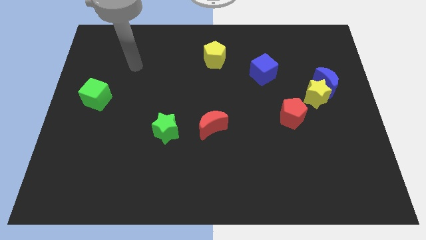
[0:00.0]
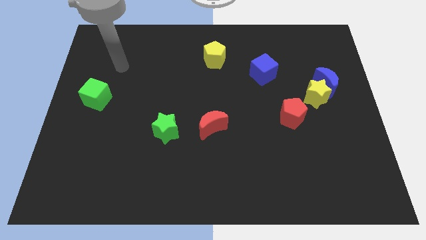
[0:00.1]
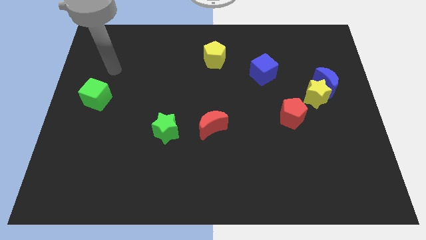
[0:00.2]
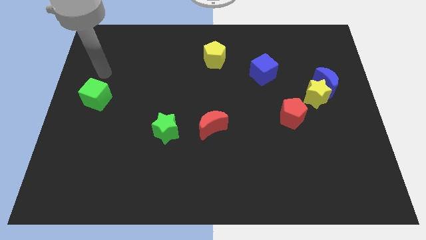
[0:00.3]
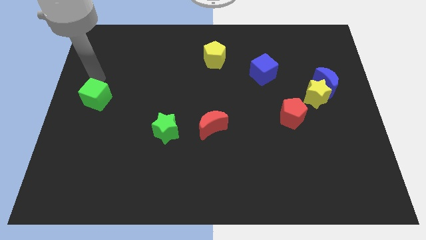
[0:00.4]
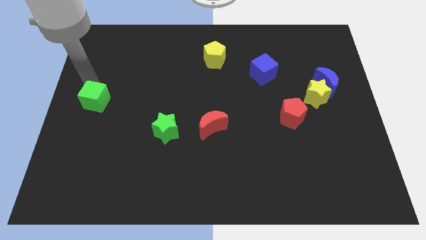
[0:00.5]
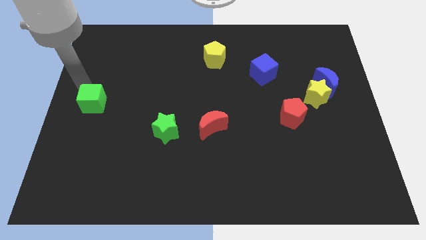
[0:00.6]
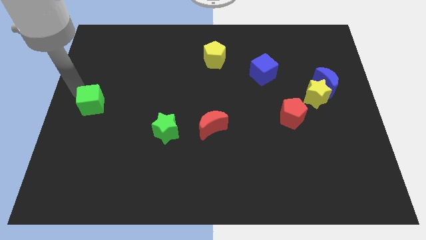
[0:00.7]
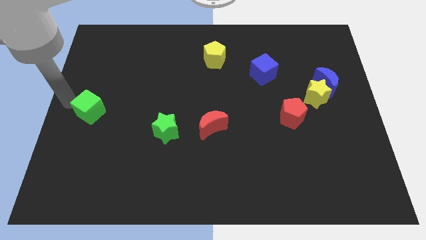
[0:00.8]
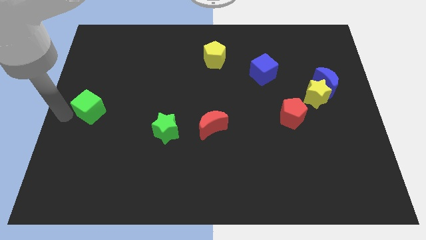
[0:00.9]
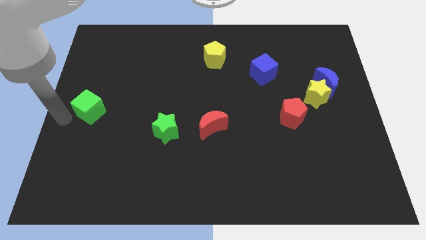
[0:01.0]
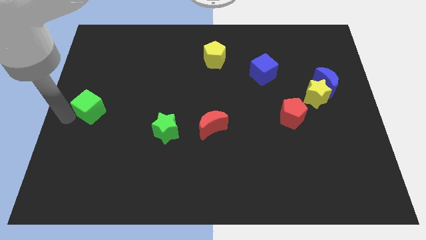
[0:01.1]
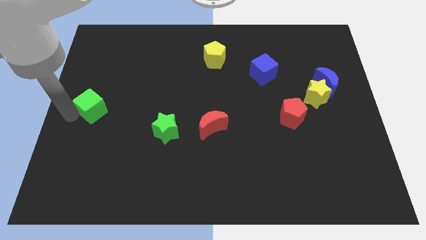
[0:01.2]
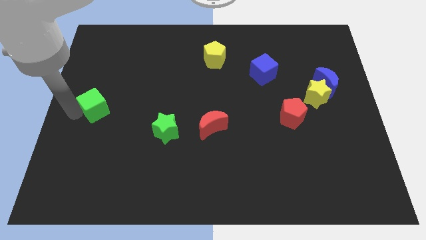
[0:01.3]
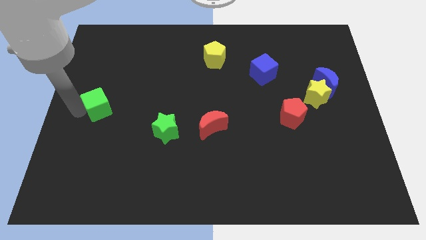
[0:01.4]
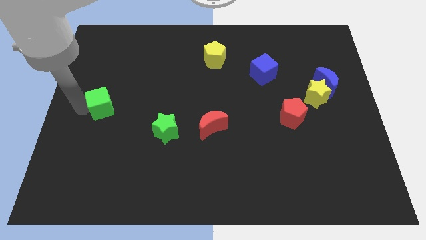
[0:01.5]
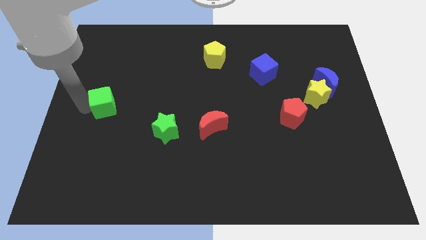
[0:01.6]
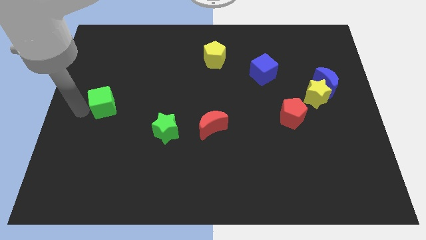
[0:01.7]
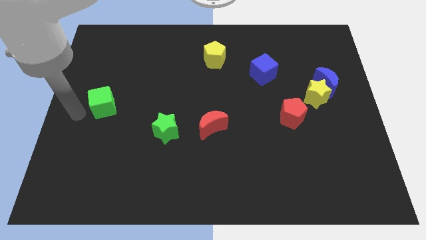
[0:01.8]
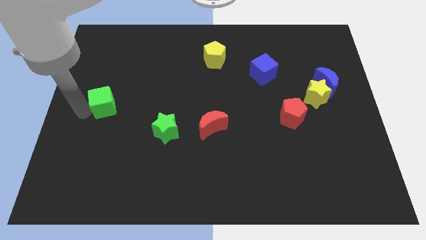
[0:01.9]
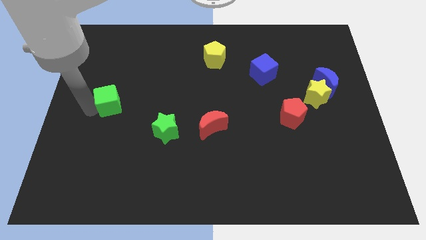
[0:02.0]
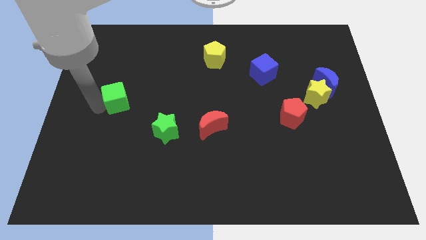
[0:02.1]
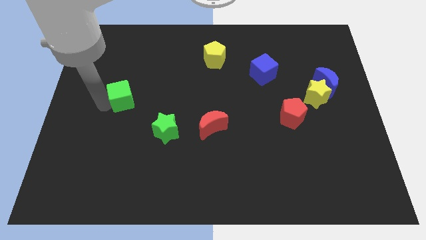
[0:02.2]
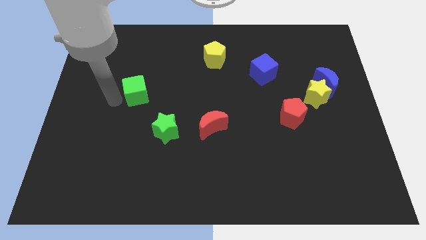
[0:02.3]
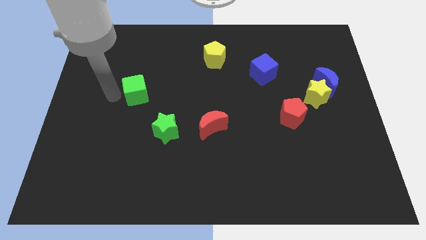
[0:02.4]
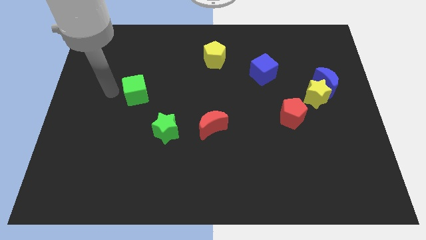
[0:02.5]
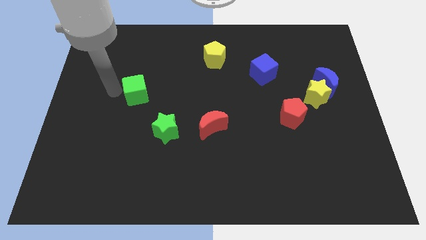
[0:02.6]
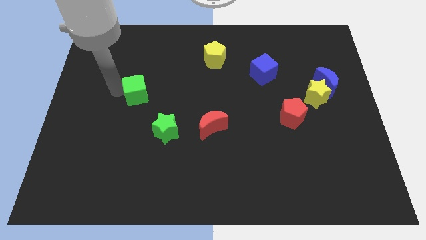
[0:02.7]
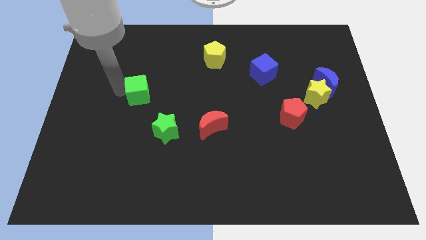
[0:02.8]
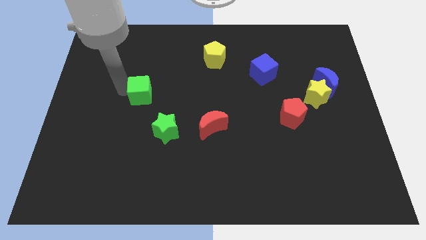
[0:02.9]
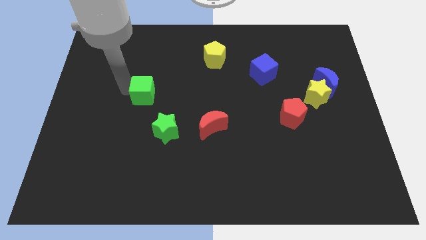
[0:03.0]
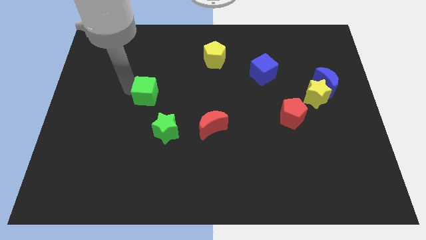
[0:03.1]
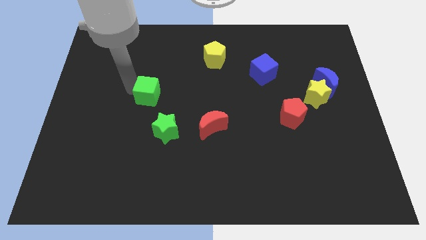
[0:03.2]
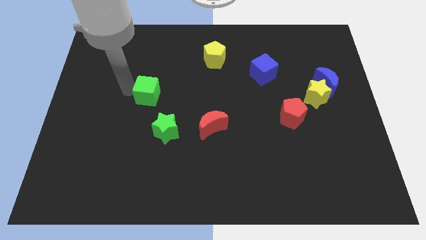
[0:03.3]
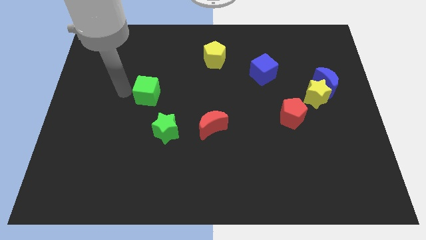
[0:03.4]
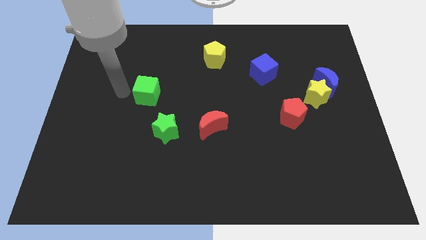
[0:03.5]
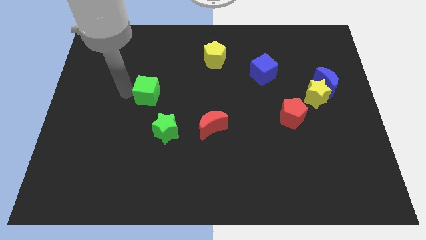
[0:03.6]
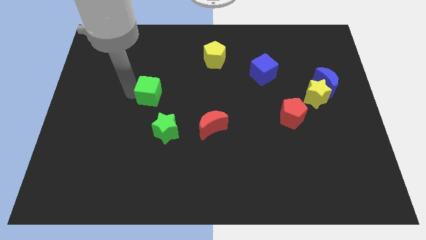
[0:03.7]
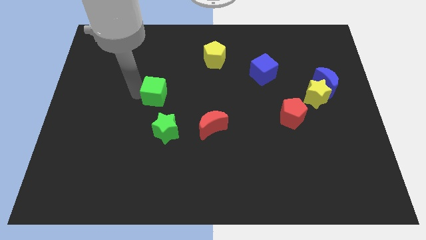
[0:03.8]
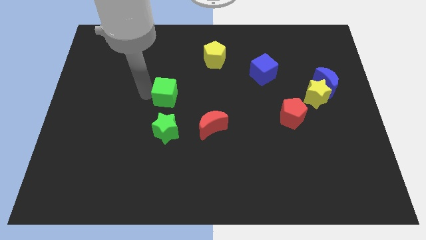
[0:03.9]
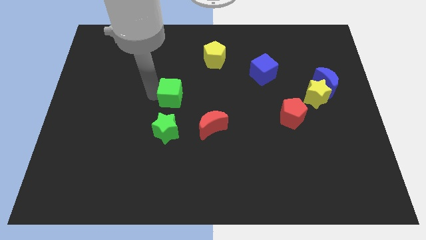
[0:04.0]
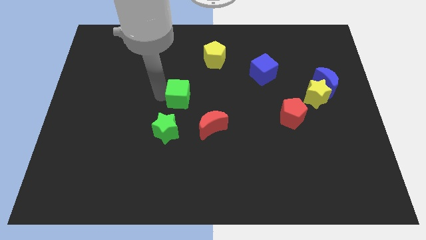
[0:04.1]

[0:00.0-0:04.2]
push the green cube to the right

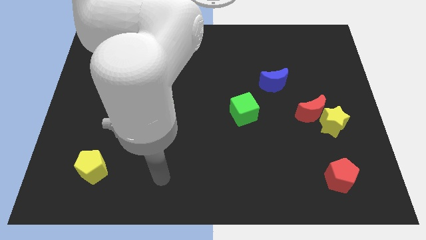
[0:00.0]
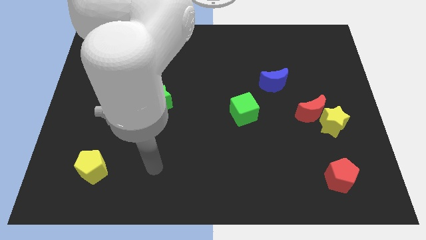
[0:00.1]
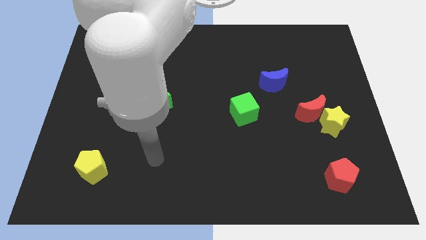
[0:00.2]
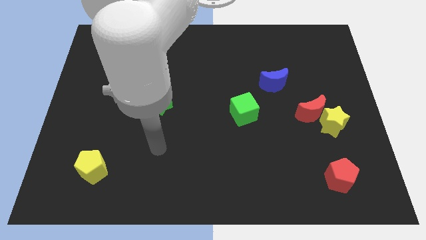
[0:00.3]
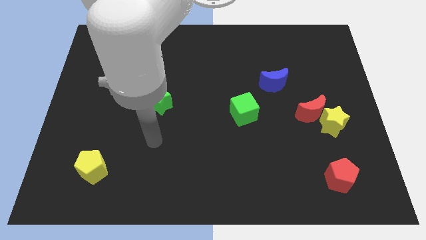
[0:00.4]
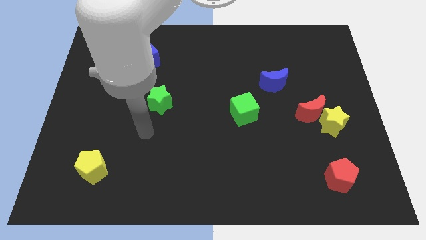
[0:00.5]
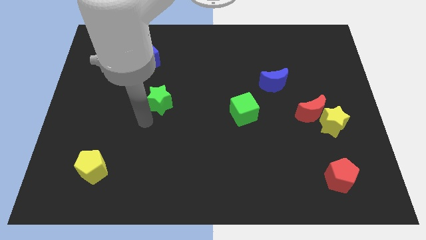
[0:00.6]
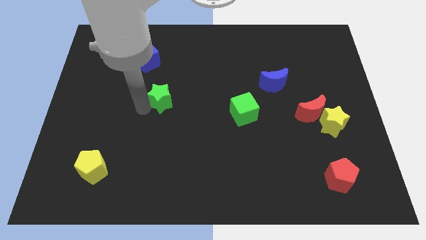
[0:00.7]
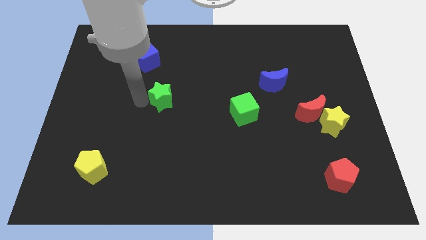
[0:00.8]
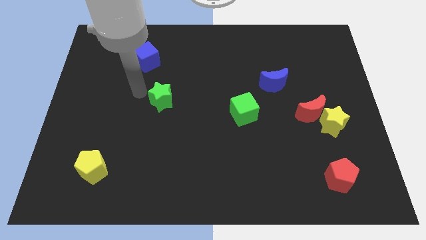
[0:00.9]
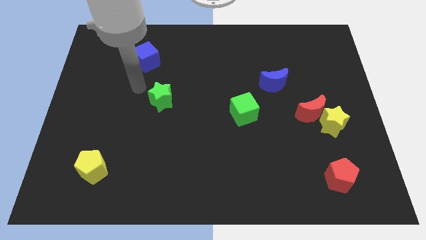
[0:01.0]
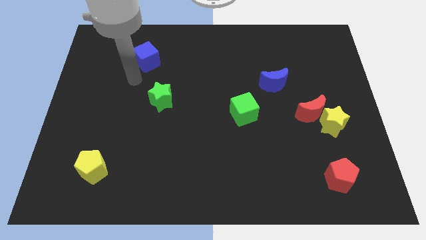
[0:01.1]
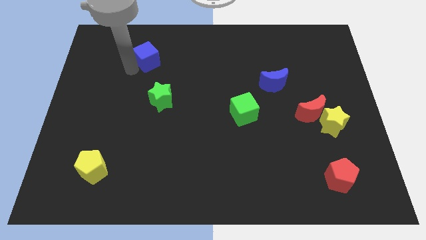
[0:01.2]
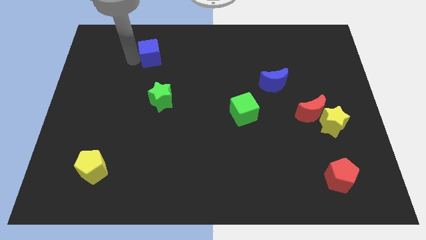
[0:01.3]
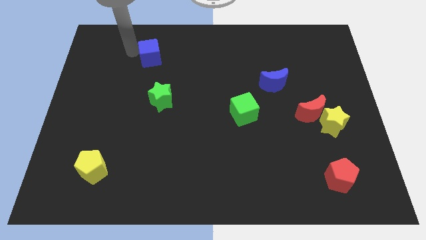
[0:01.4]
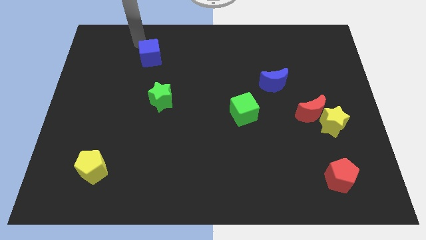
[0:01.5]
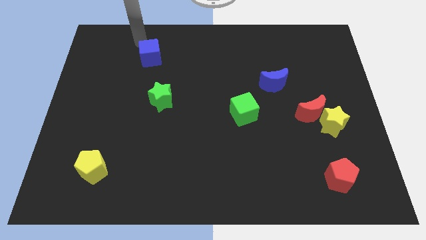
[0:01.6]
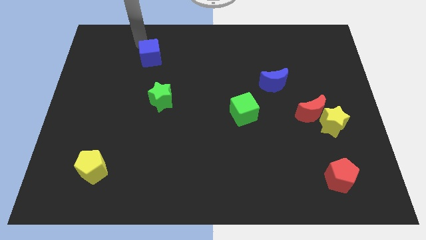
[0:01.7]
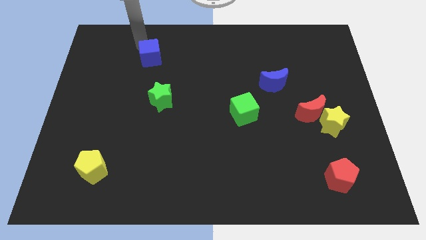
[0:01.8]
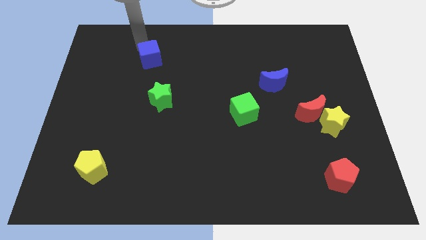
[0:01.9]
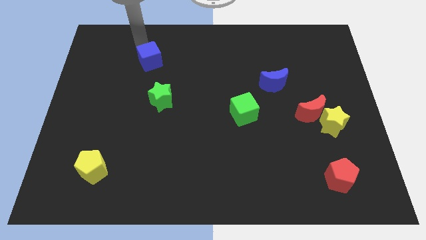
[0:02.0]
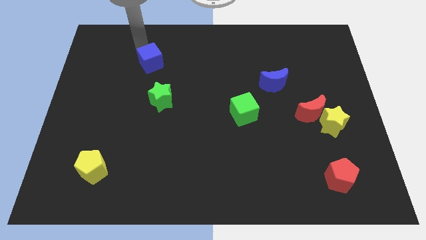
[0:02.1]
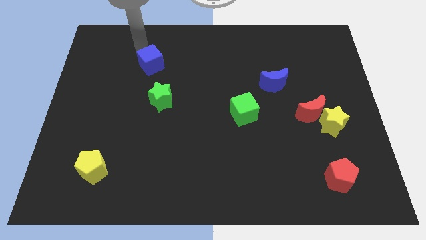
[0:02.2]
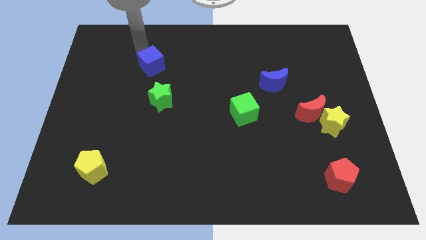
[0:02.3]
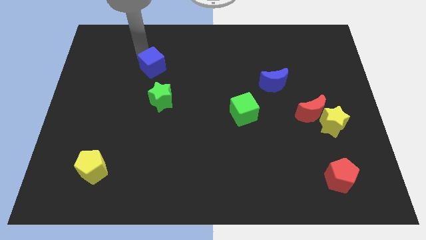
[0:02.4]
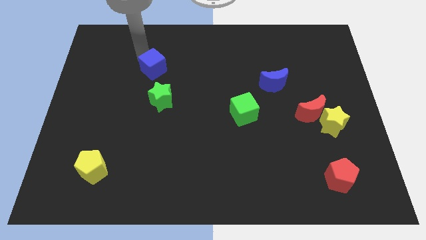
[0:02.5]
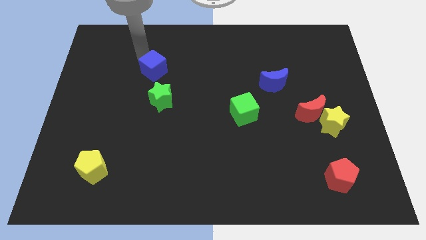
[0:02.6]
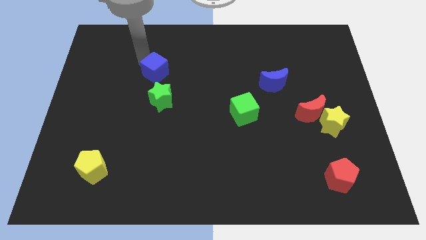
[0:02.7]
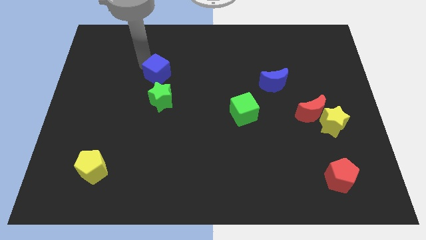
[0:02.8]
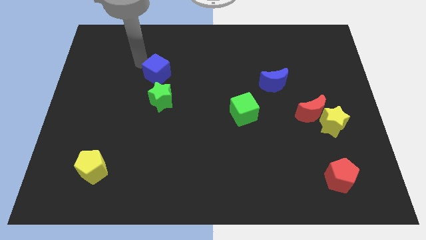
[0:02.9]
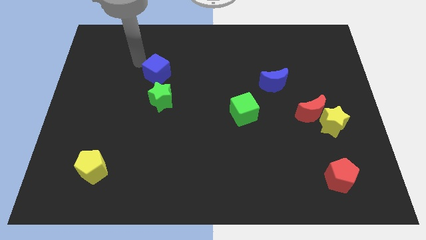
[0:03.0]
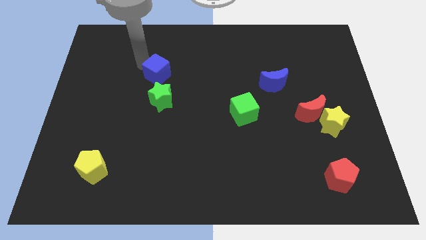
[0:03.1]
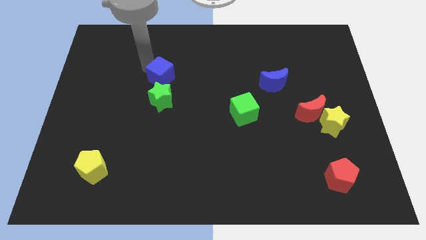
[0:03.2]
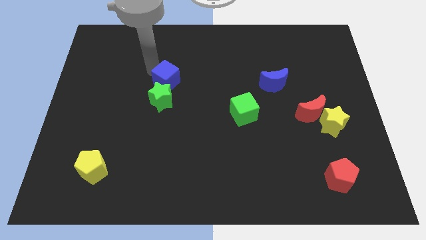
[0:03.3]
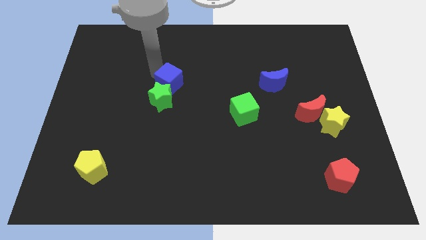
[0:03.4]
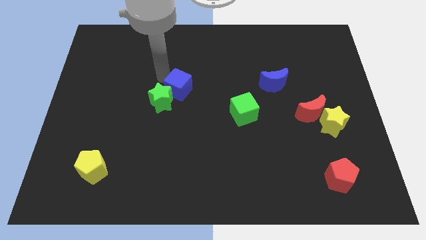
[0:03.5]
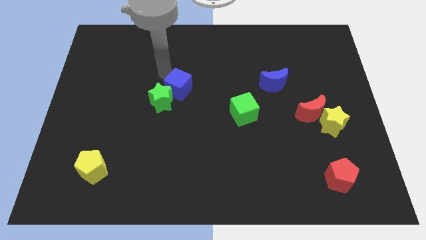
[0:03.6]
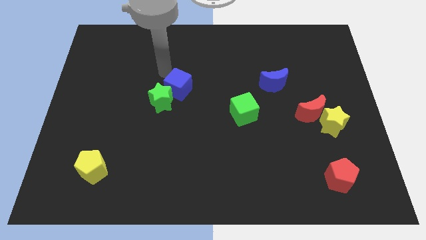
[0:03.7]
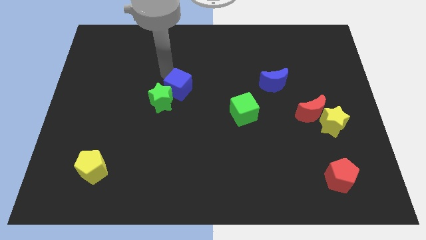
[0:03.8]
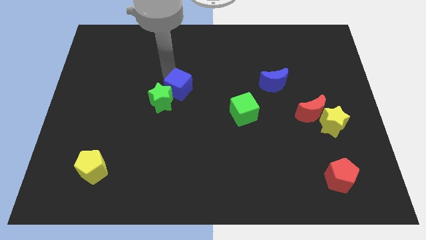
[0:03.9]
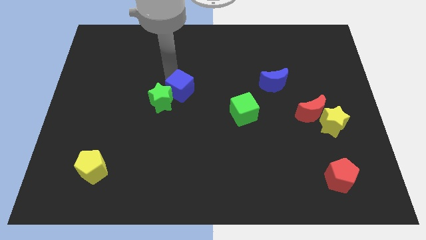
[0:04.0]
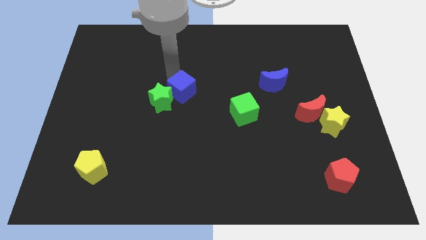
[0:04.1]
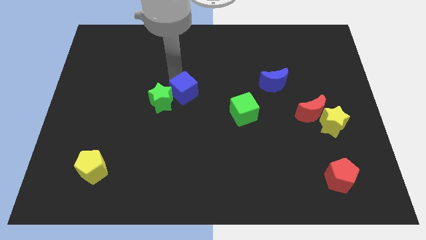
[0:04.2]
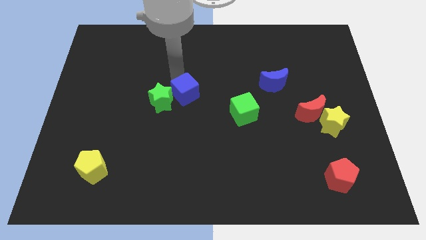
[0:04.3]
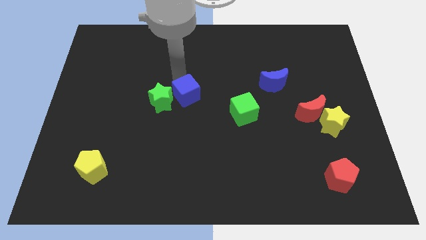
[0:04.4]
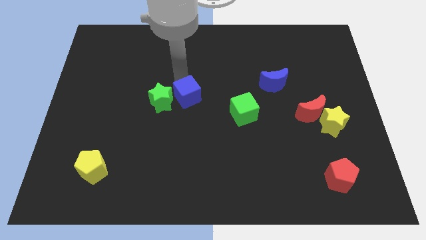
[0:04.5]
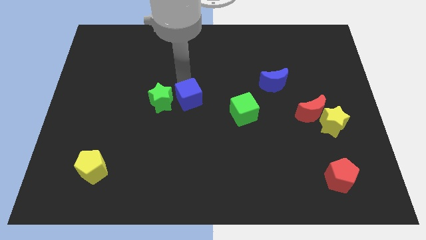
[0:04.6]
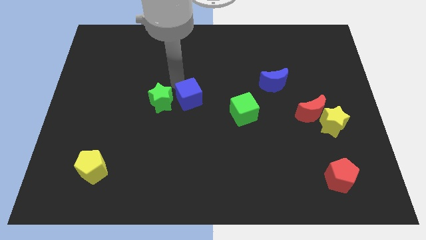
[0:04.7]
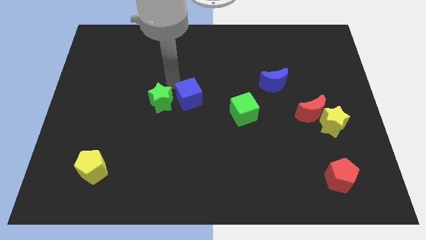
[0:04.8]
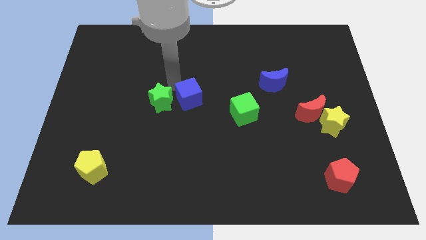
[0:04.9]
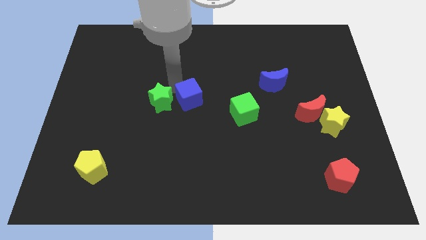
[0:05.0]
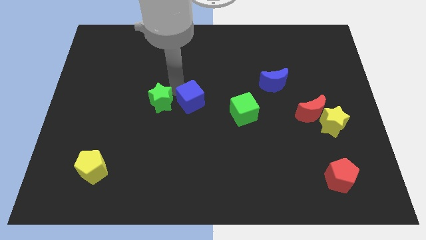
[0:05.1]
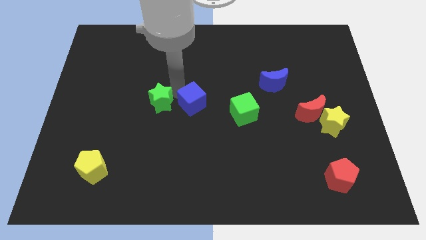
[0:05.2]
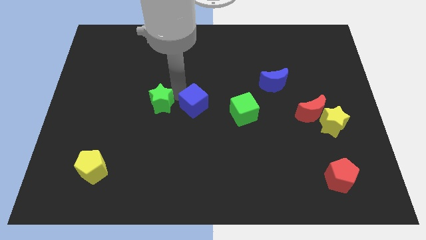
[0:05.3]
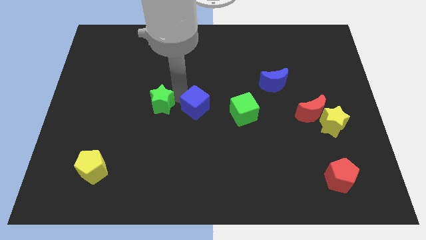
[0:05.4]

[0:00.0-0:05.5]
move the blue cube down and right
